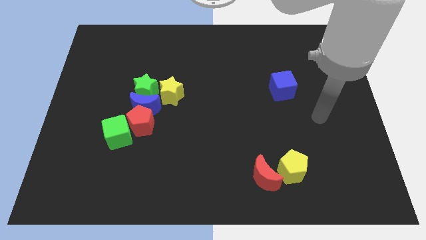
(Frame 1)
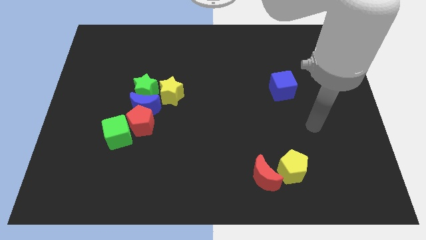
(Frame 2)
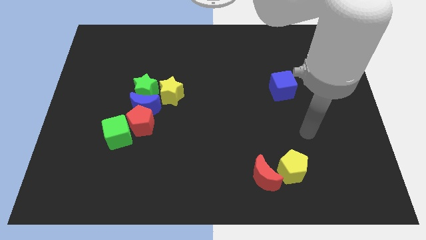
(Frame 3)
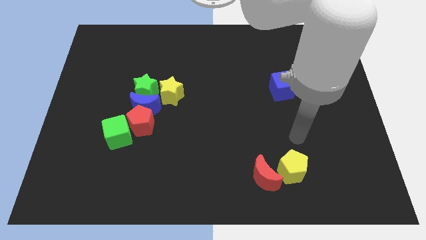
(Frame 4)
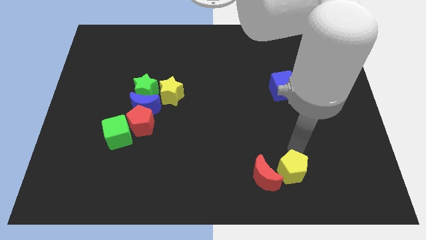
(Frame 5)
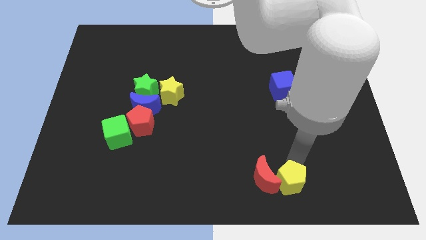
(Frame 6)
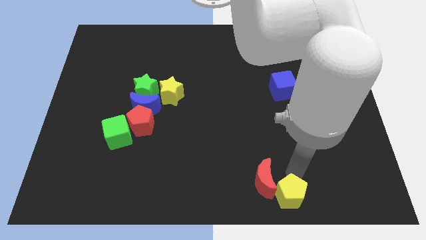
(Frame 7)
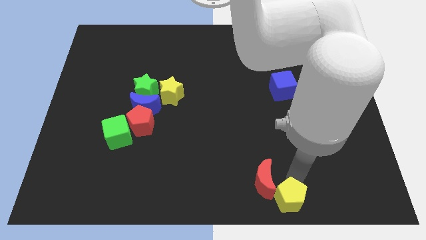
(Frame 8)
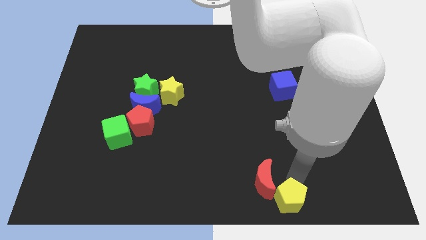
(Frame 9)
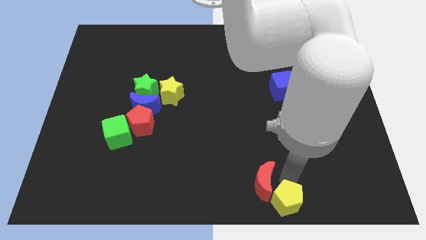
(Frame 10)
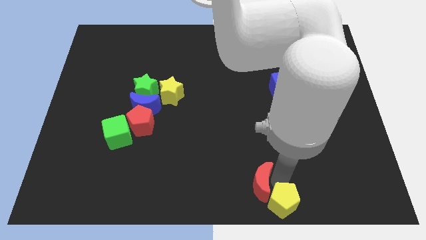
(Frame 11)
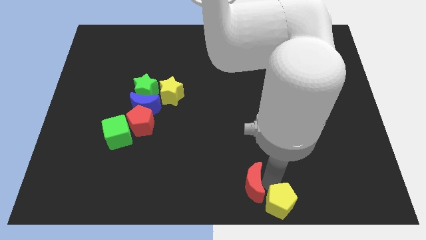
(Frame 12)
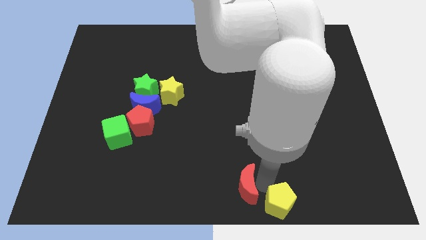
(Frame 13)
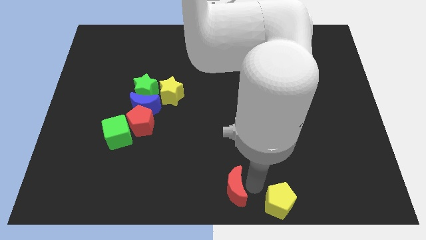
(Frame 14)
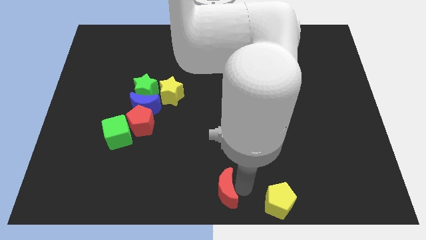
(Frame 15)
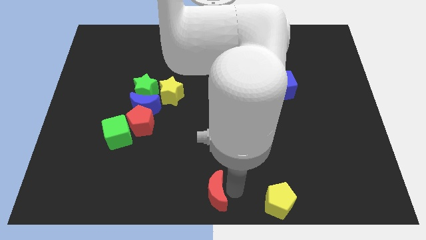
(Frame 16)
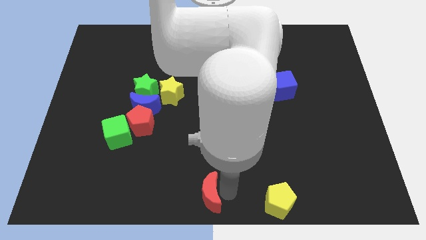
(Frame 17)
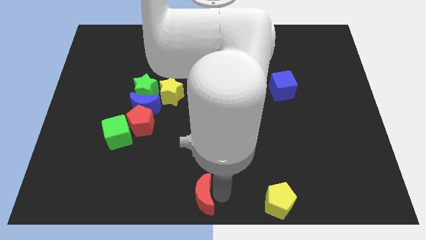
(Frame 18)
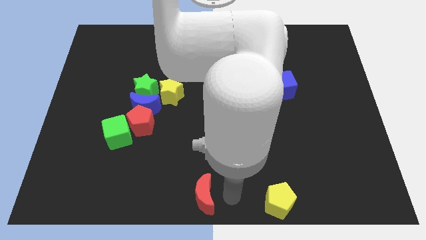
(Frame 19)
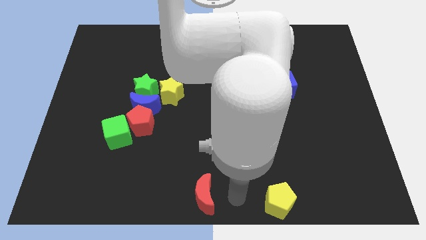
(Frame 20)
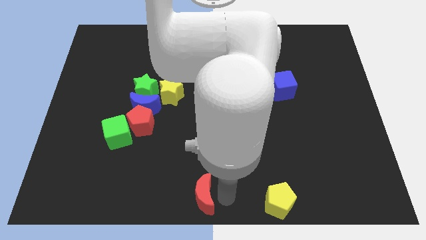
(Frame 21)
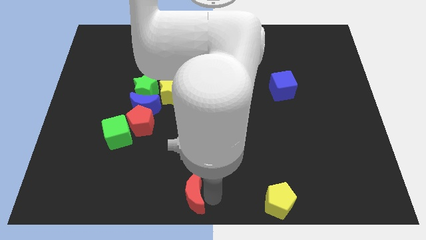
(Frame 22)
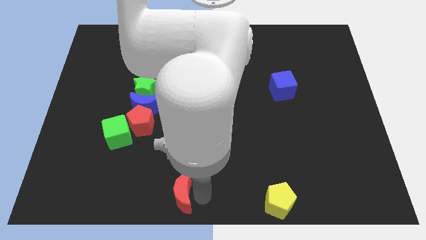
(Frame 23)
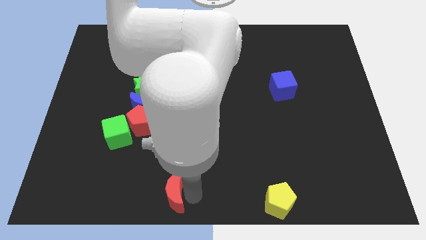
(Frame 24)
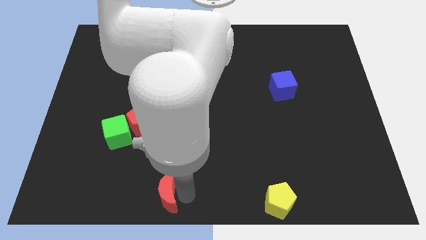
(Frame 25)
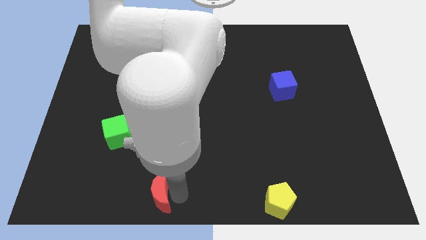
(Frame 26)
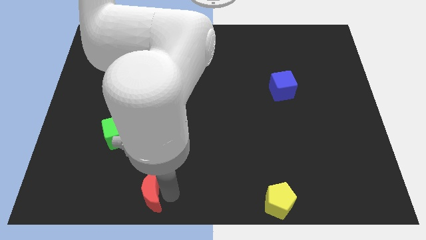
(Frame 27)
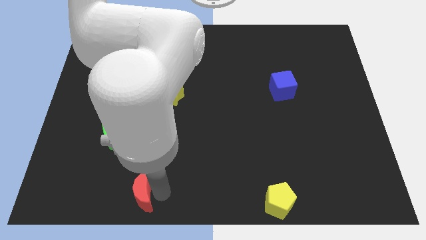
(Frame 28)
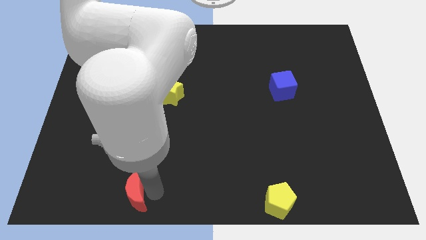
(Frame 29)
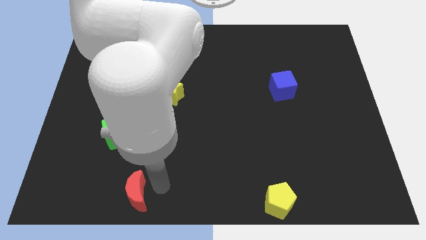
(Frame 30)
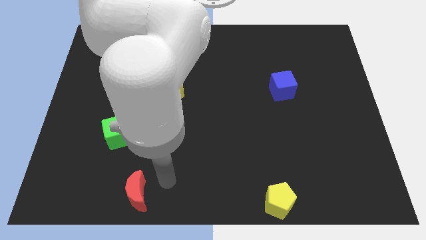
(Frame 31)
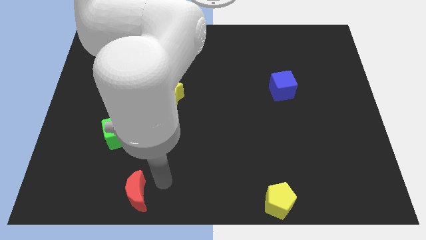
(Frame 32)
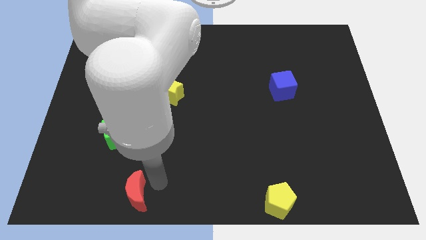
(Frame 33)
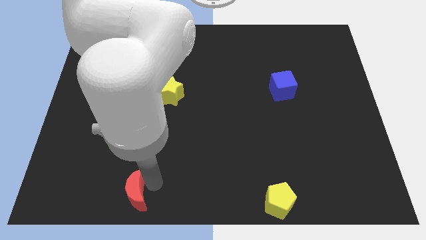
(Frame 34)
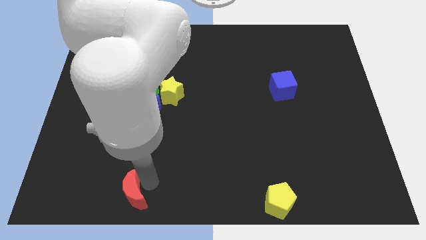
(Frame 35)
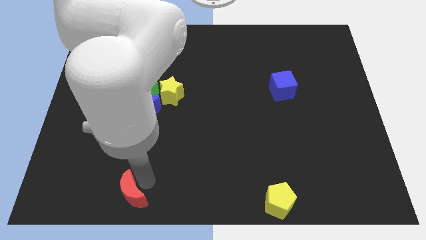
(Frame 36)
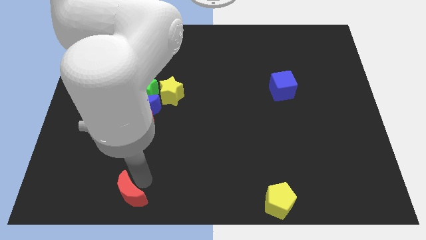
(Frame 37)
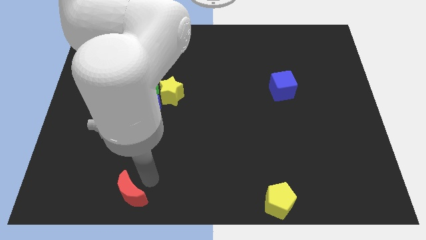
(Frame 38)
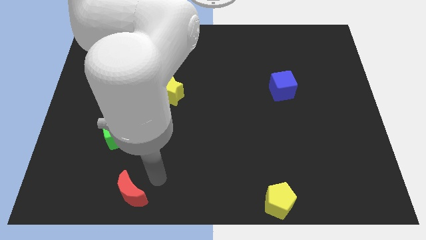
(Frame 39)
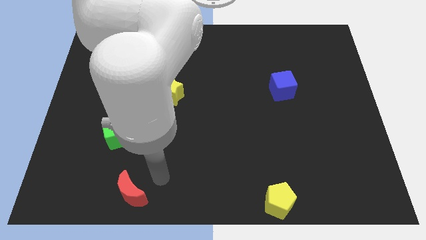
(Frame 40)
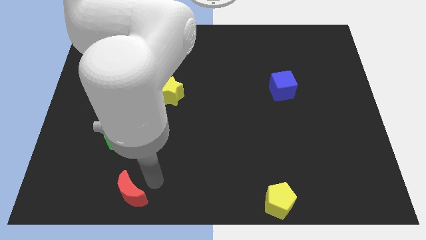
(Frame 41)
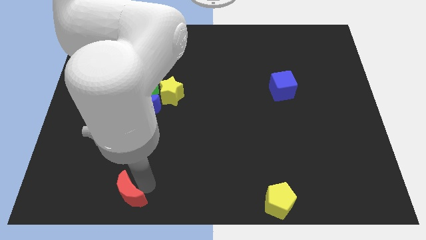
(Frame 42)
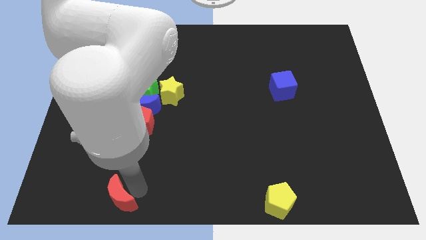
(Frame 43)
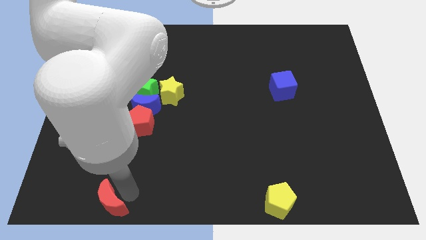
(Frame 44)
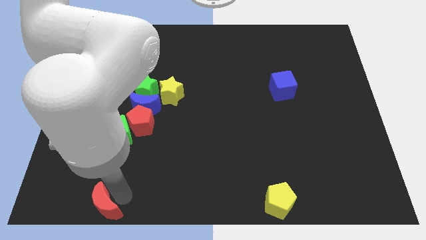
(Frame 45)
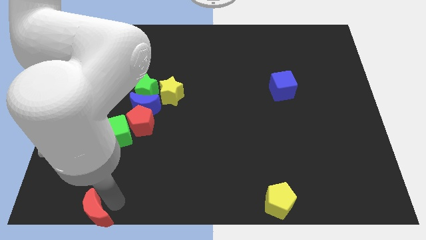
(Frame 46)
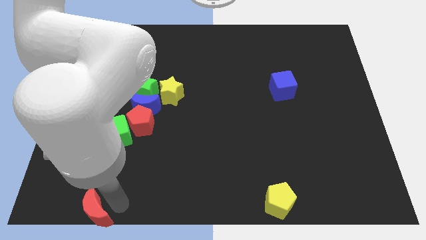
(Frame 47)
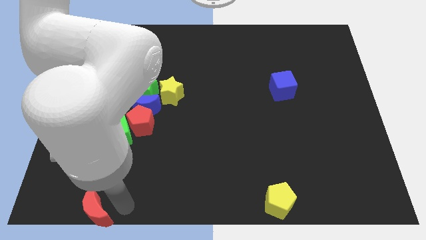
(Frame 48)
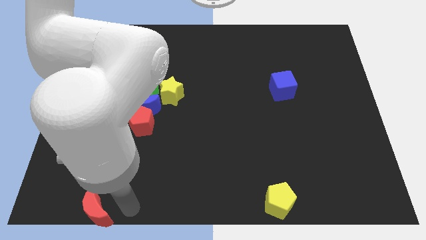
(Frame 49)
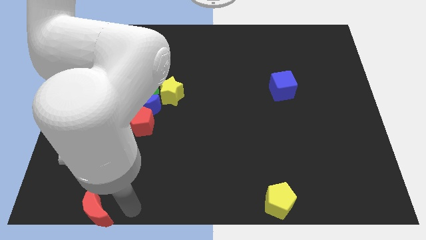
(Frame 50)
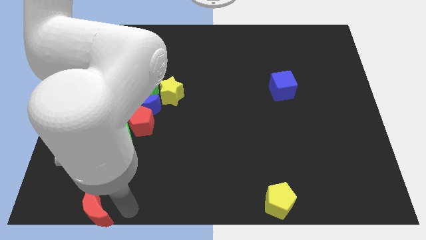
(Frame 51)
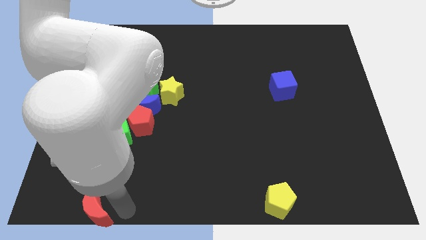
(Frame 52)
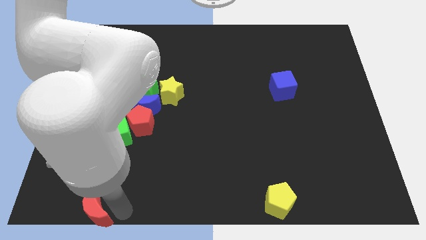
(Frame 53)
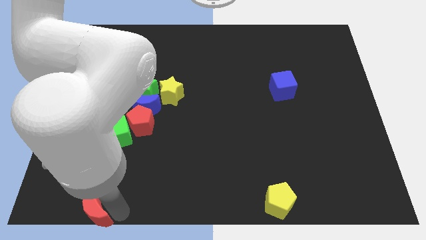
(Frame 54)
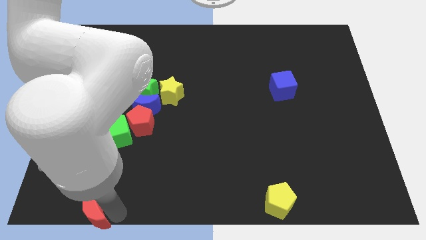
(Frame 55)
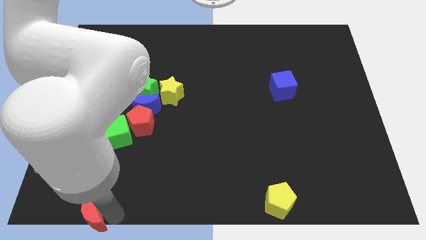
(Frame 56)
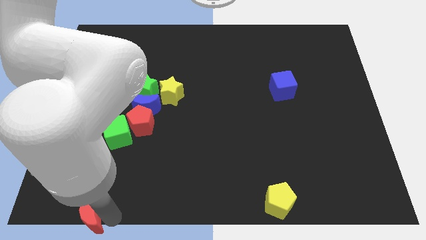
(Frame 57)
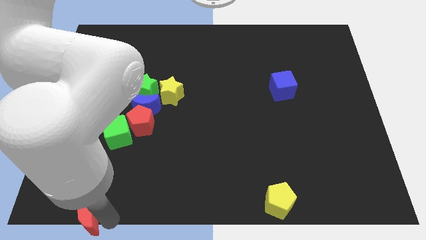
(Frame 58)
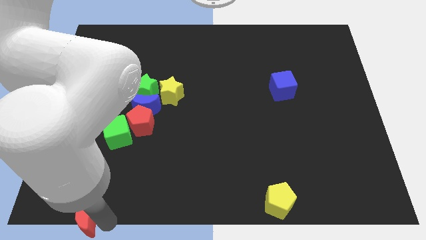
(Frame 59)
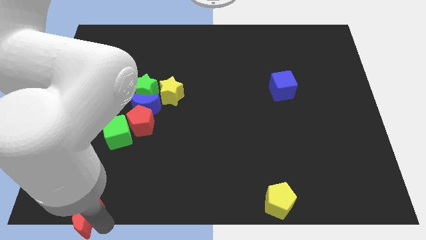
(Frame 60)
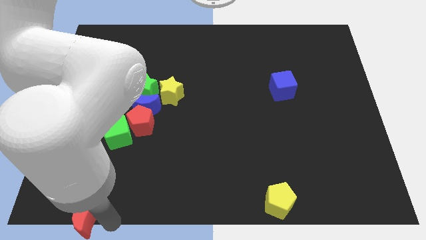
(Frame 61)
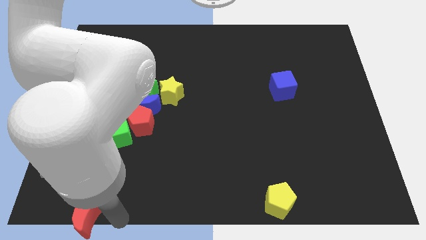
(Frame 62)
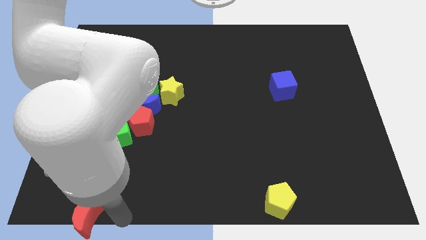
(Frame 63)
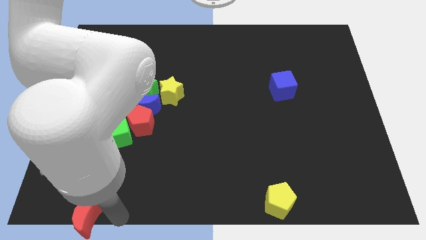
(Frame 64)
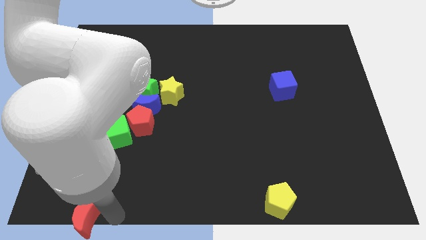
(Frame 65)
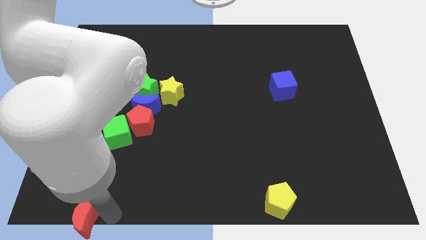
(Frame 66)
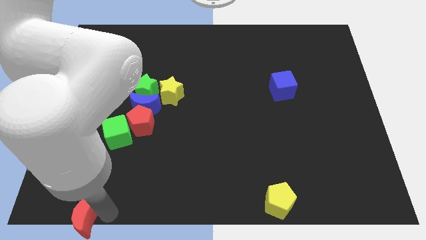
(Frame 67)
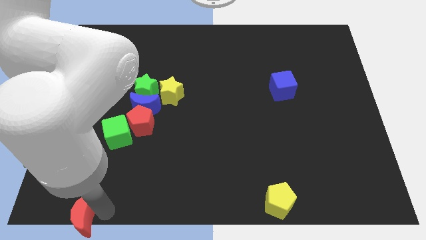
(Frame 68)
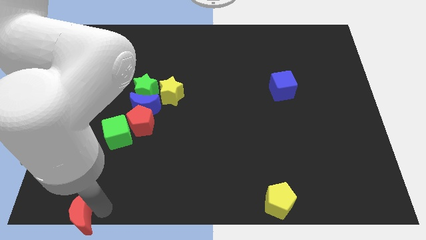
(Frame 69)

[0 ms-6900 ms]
move the red moon to the lower left corner
